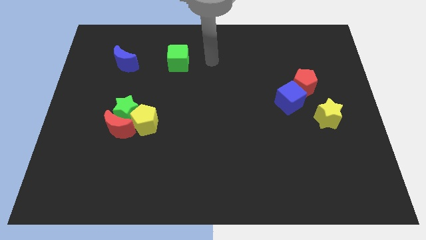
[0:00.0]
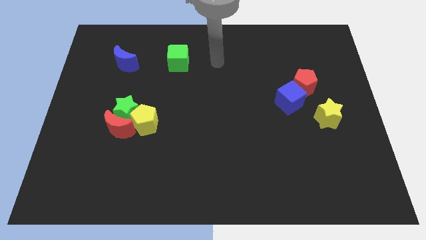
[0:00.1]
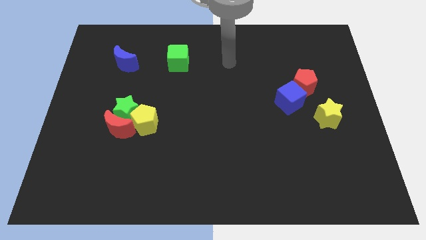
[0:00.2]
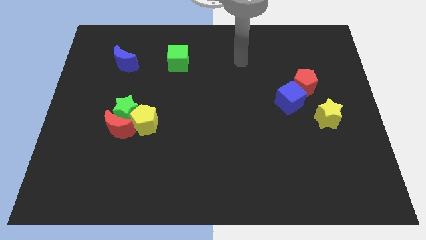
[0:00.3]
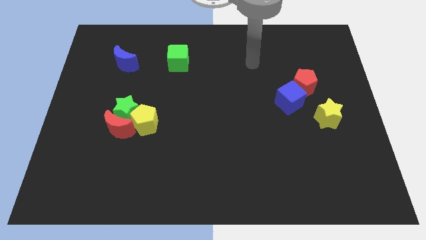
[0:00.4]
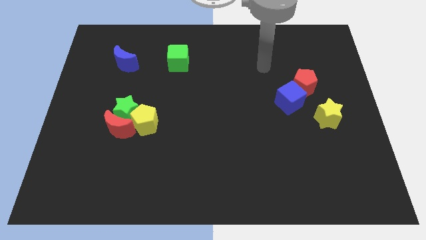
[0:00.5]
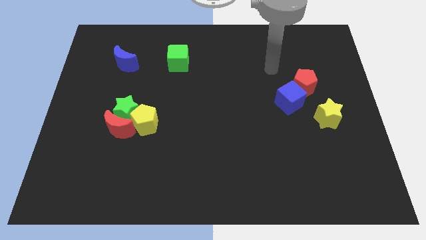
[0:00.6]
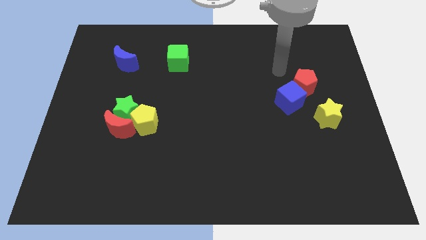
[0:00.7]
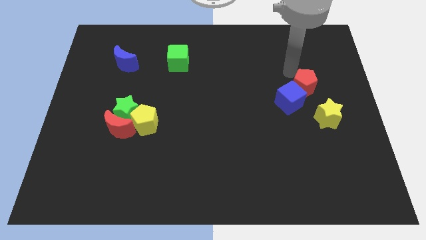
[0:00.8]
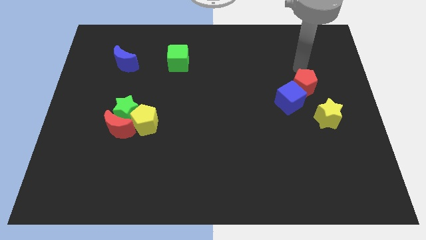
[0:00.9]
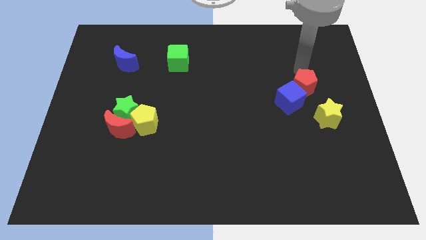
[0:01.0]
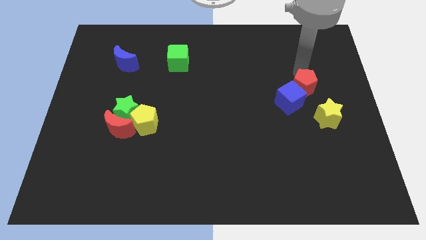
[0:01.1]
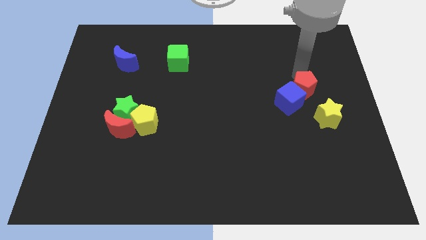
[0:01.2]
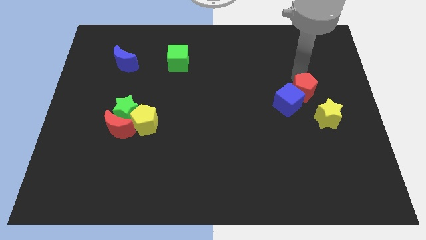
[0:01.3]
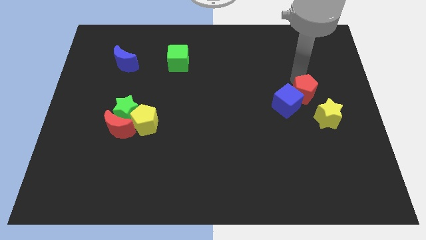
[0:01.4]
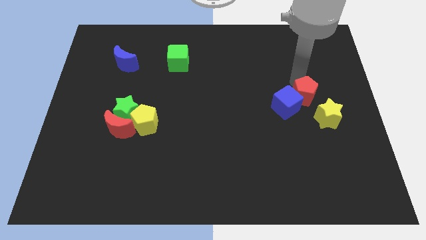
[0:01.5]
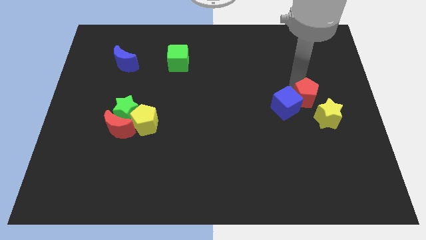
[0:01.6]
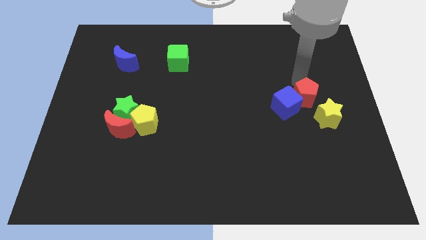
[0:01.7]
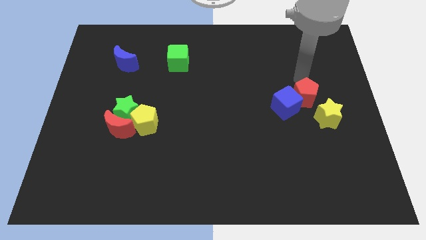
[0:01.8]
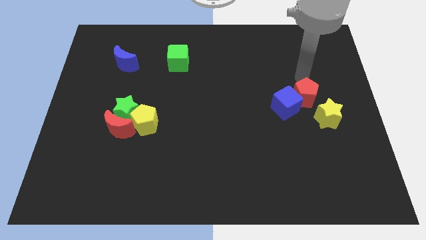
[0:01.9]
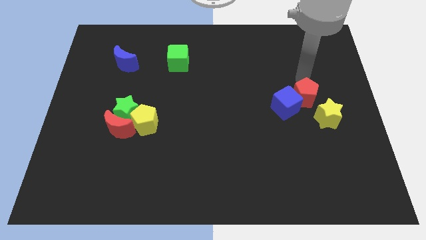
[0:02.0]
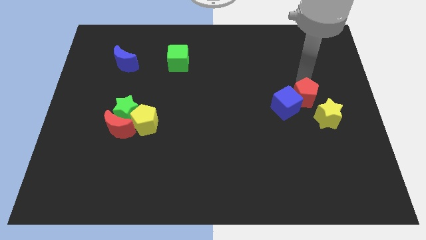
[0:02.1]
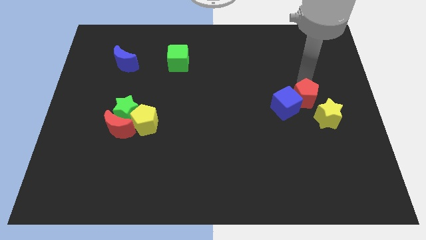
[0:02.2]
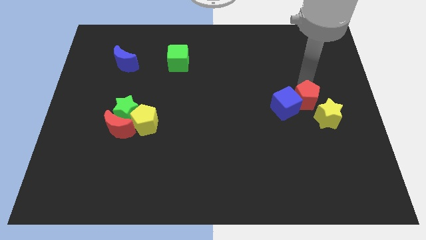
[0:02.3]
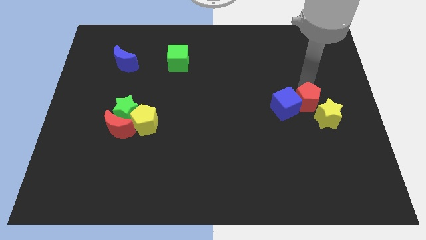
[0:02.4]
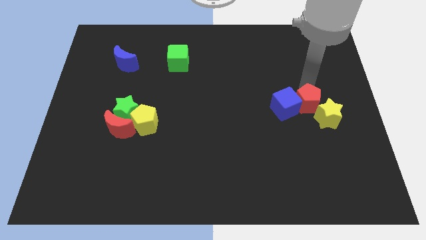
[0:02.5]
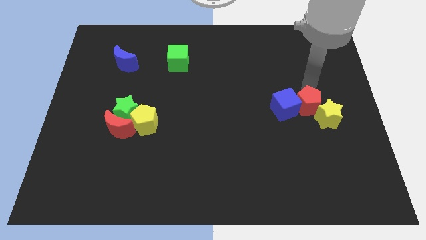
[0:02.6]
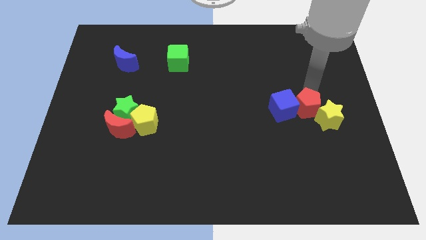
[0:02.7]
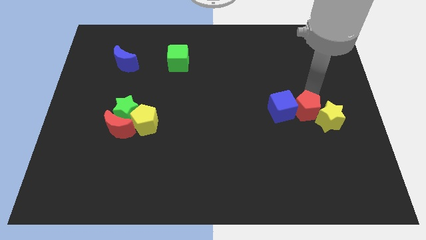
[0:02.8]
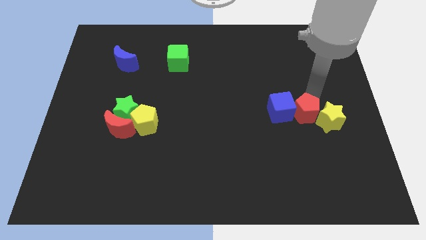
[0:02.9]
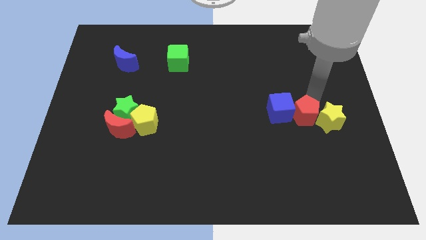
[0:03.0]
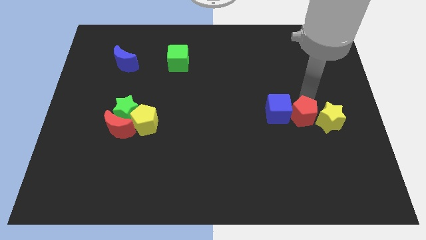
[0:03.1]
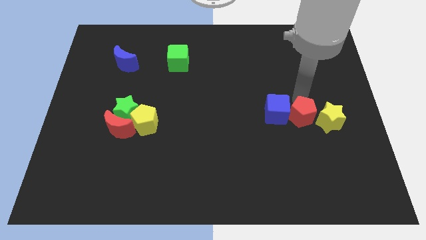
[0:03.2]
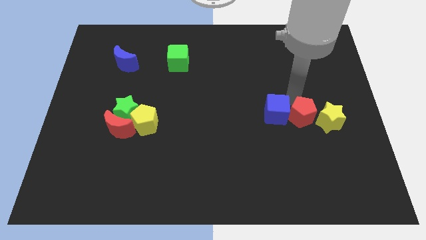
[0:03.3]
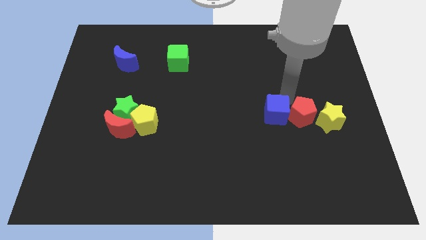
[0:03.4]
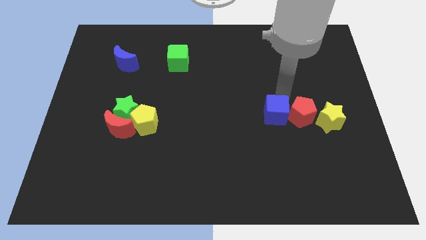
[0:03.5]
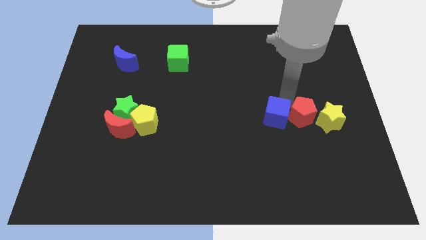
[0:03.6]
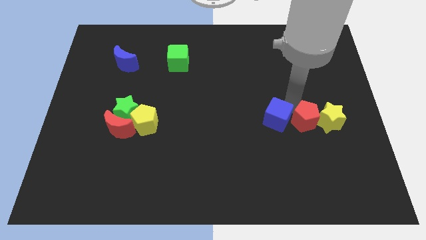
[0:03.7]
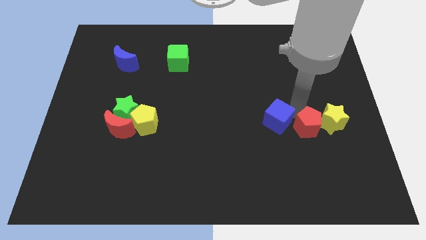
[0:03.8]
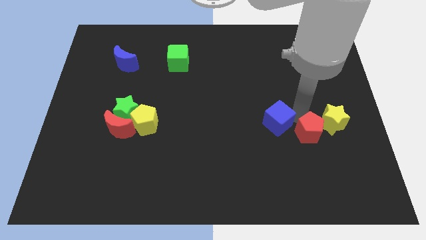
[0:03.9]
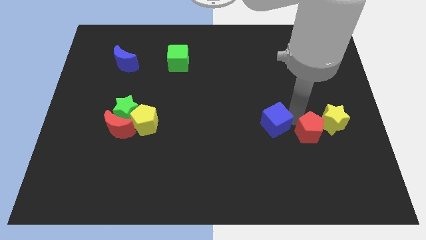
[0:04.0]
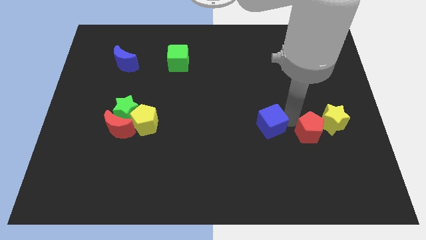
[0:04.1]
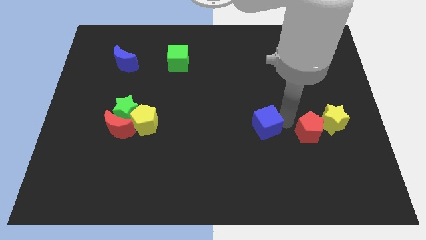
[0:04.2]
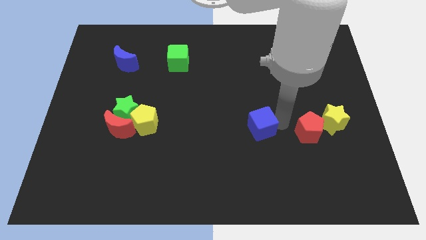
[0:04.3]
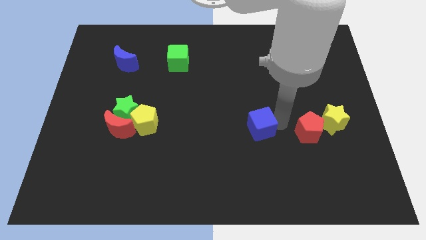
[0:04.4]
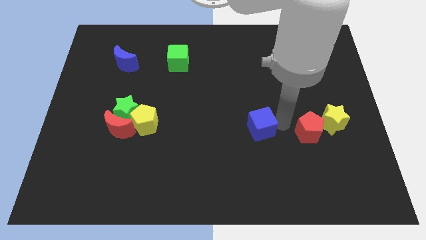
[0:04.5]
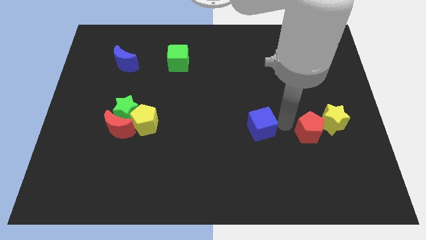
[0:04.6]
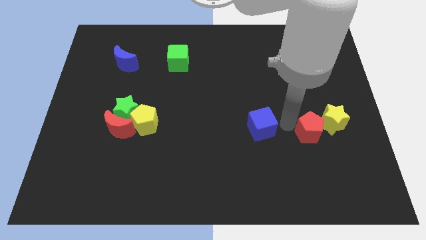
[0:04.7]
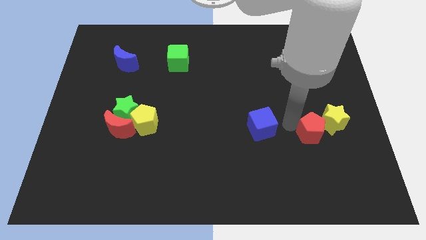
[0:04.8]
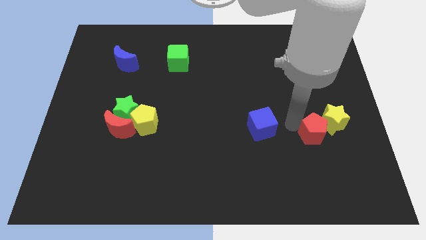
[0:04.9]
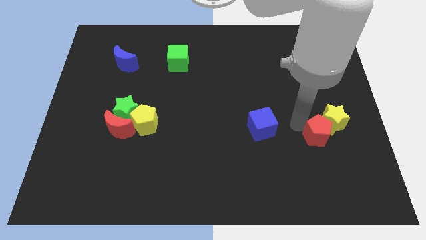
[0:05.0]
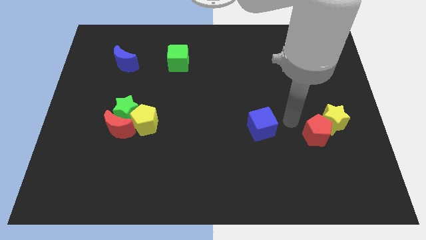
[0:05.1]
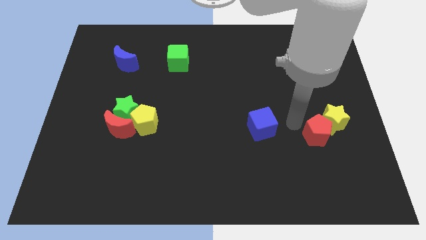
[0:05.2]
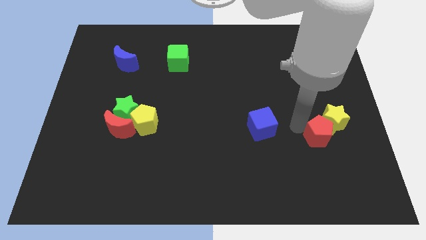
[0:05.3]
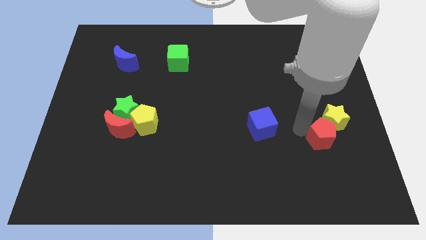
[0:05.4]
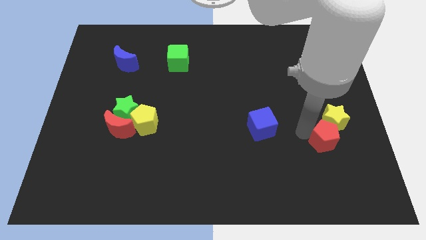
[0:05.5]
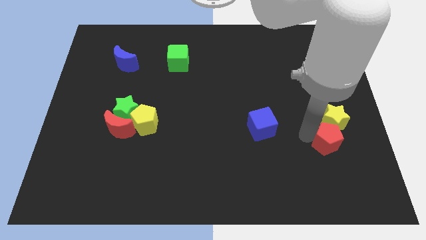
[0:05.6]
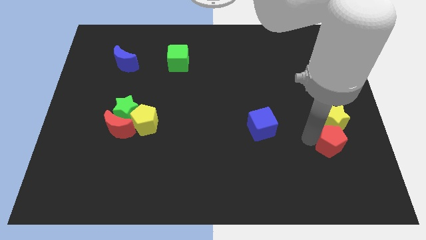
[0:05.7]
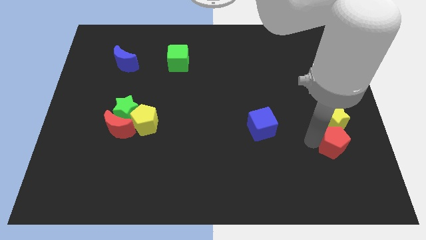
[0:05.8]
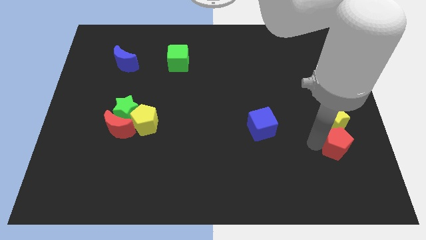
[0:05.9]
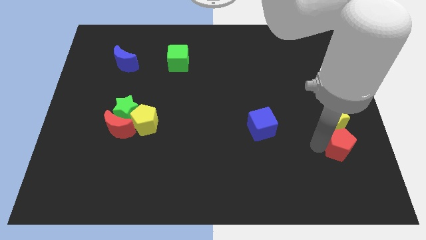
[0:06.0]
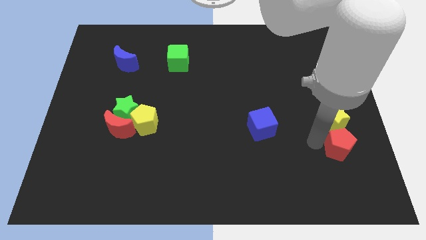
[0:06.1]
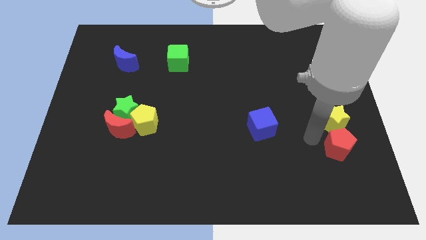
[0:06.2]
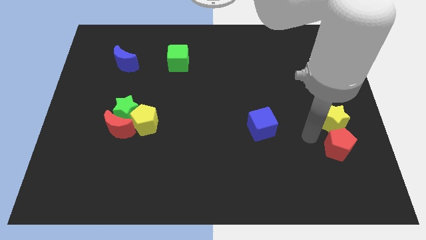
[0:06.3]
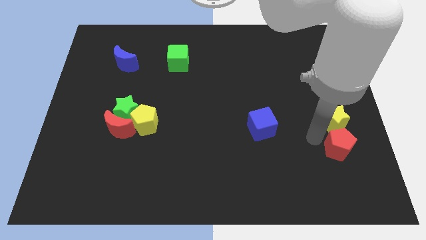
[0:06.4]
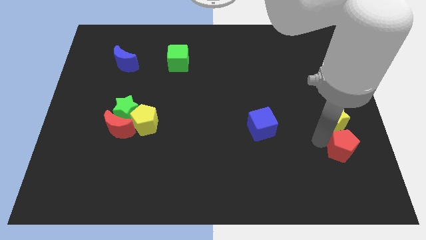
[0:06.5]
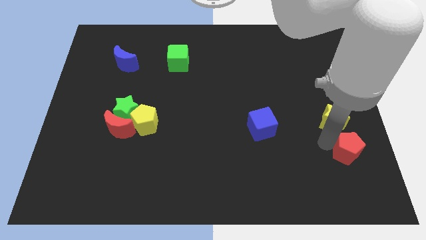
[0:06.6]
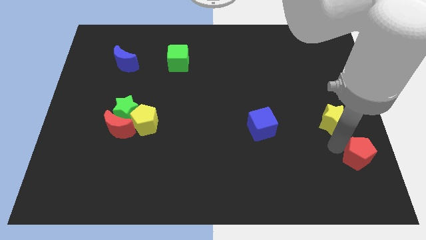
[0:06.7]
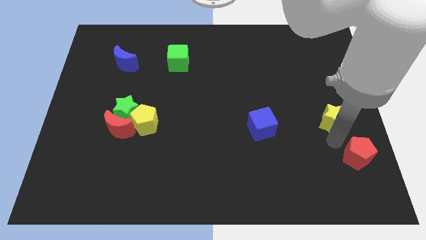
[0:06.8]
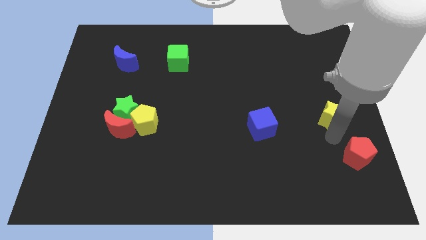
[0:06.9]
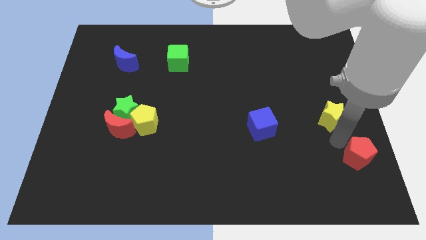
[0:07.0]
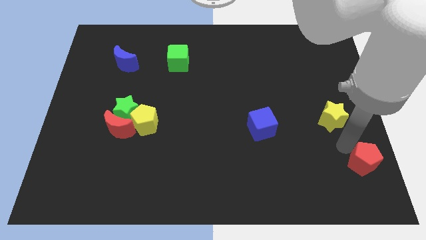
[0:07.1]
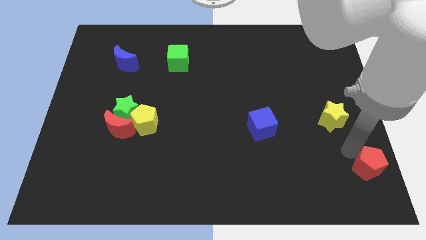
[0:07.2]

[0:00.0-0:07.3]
push the red pentagon to the bottom right corner
